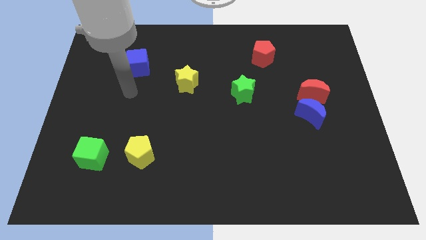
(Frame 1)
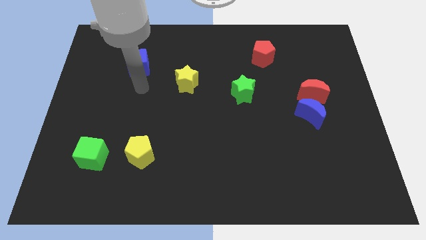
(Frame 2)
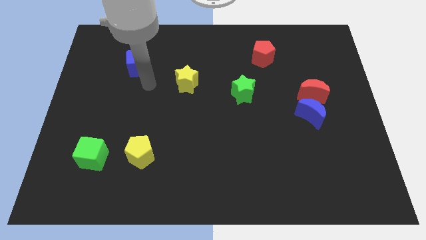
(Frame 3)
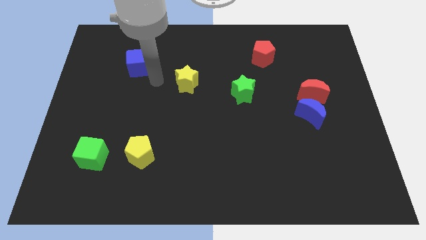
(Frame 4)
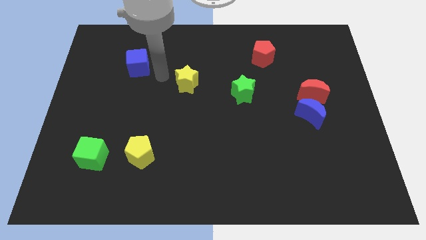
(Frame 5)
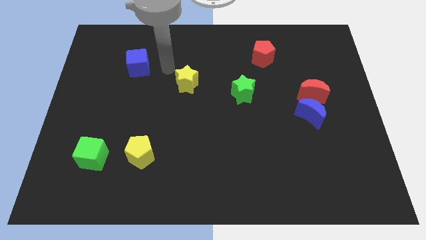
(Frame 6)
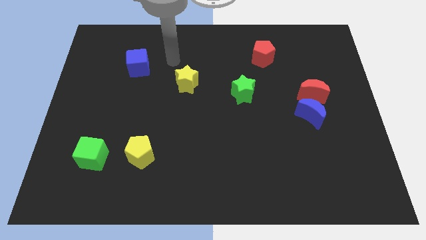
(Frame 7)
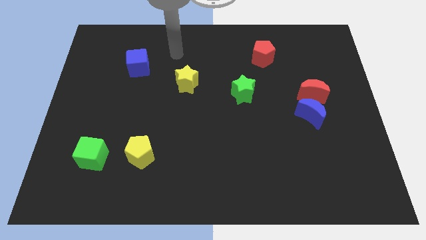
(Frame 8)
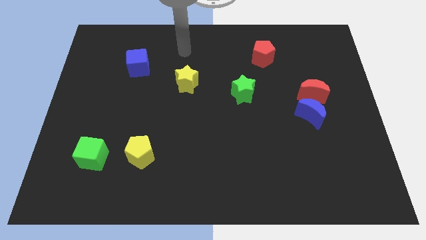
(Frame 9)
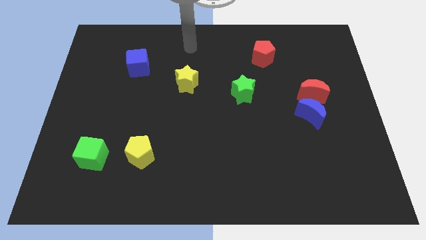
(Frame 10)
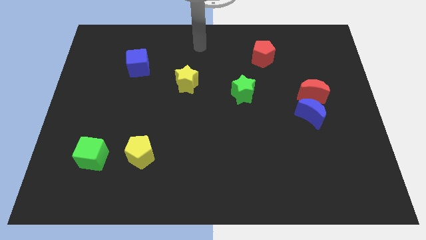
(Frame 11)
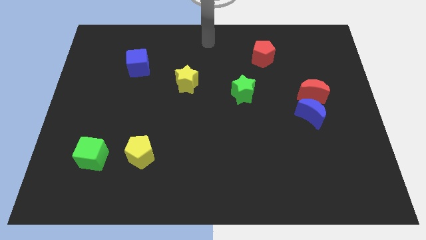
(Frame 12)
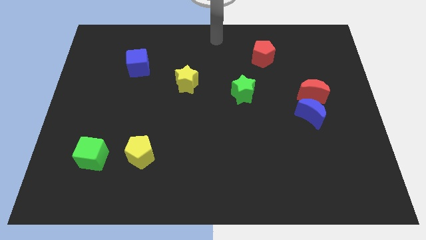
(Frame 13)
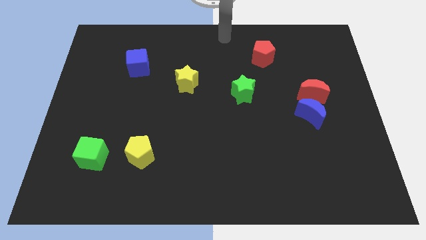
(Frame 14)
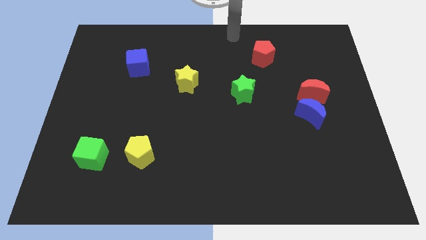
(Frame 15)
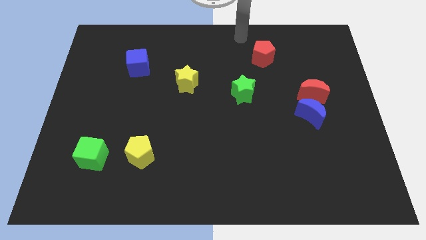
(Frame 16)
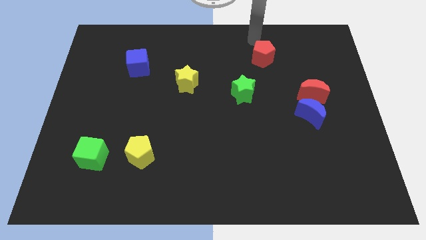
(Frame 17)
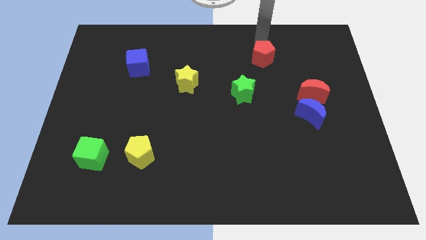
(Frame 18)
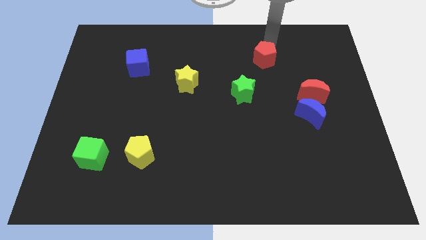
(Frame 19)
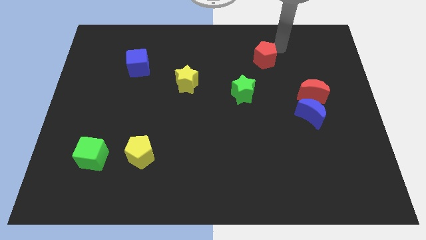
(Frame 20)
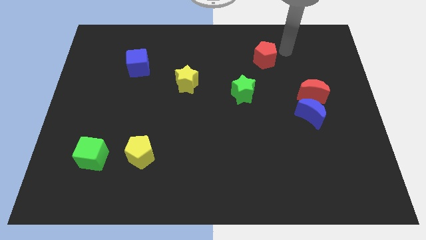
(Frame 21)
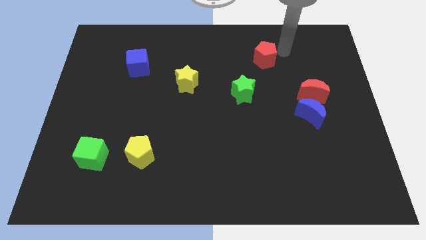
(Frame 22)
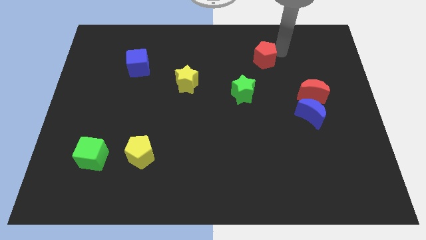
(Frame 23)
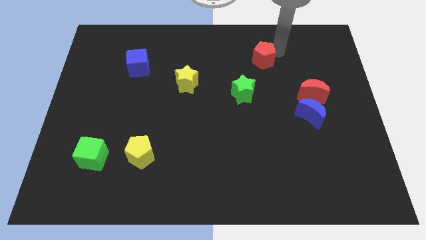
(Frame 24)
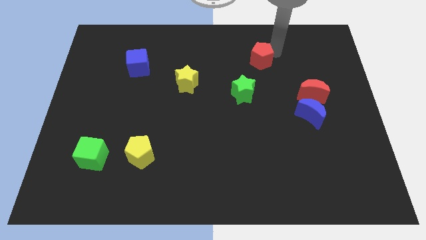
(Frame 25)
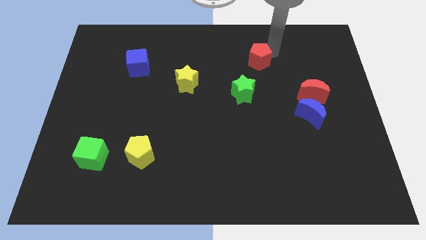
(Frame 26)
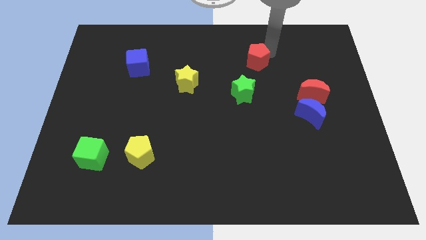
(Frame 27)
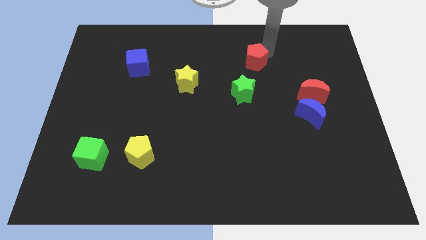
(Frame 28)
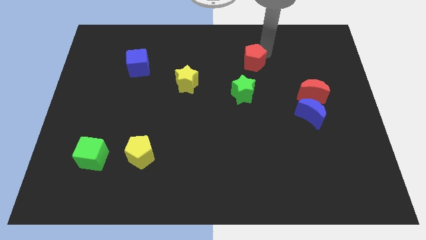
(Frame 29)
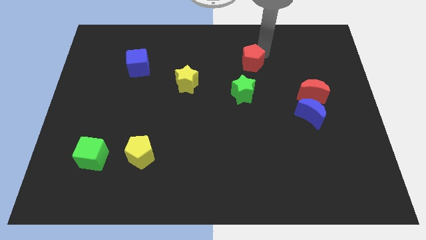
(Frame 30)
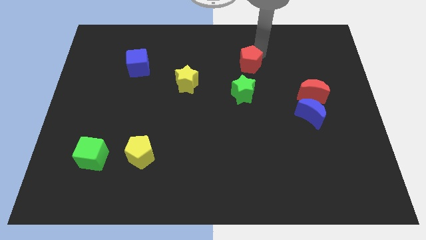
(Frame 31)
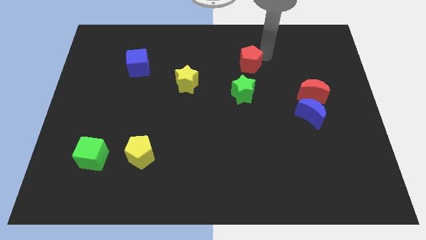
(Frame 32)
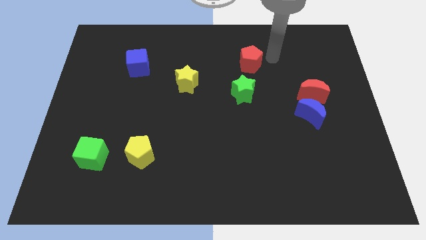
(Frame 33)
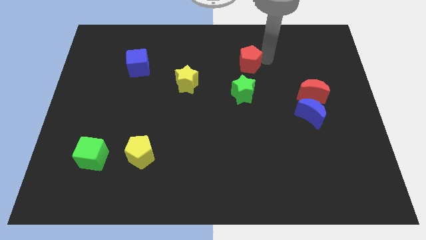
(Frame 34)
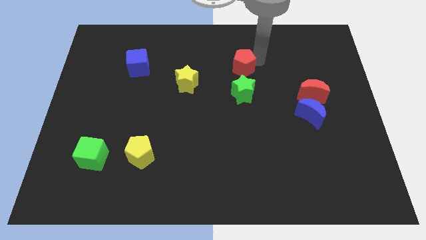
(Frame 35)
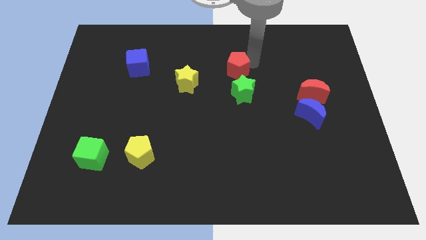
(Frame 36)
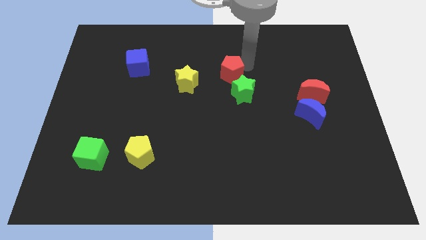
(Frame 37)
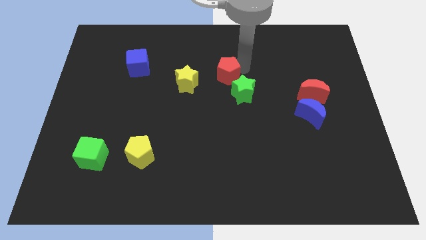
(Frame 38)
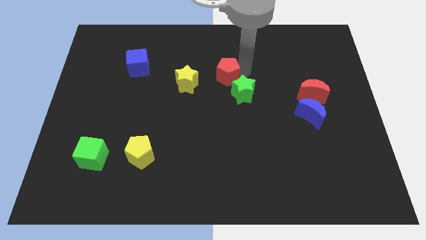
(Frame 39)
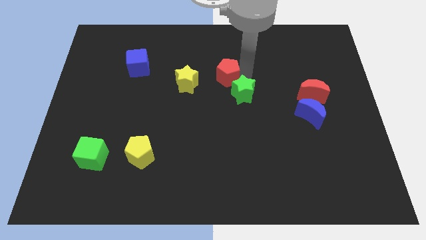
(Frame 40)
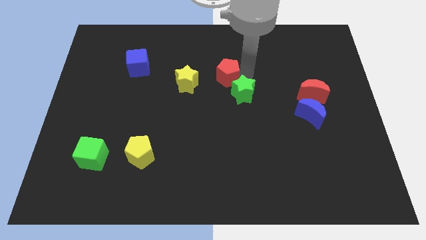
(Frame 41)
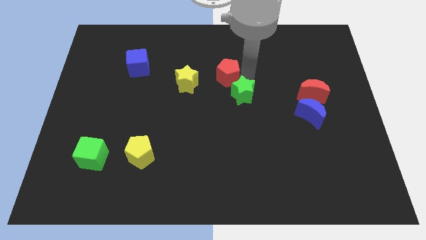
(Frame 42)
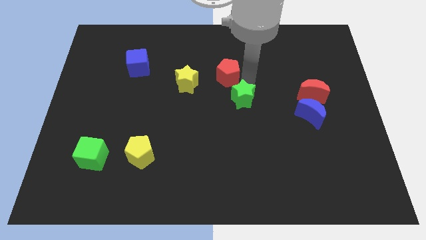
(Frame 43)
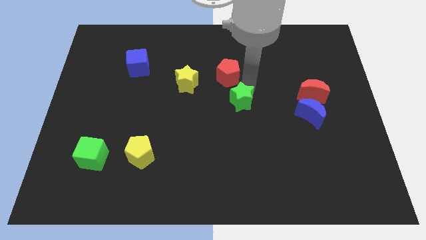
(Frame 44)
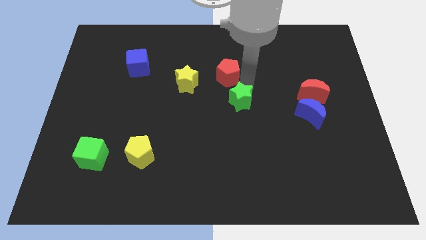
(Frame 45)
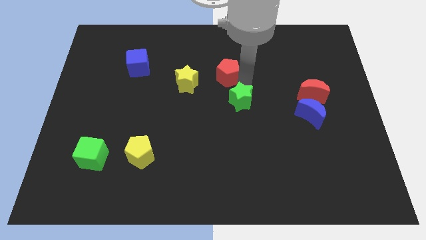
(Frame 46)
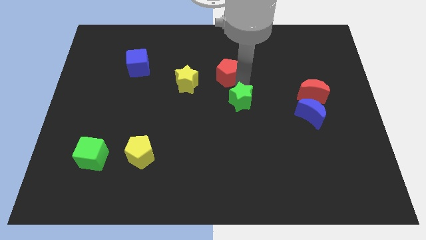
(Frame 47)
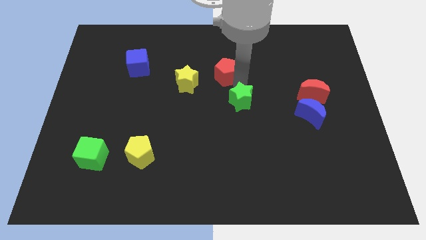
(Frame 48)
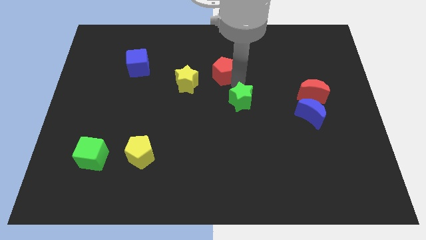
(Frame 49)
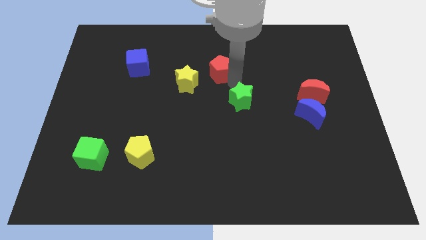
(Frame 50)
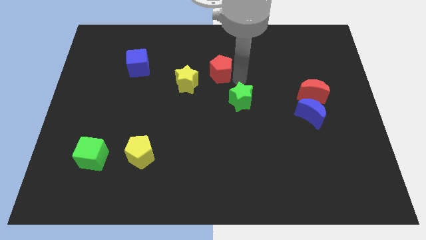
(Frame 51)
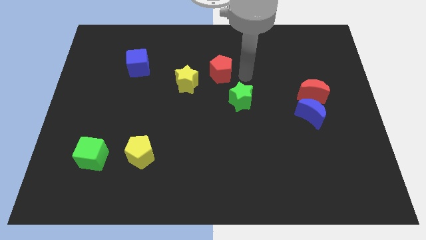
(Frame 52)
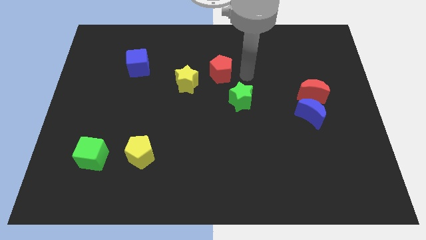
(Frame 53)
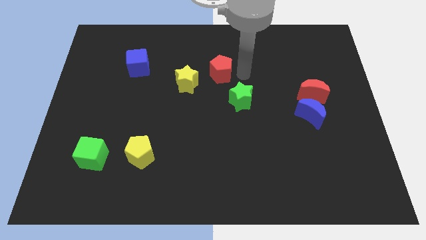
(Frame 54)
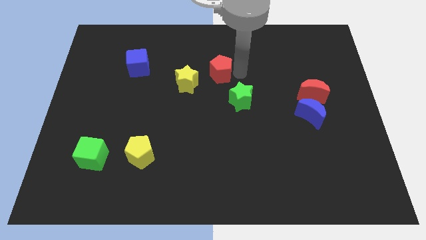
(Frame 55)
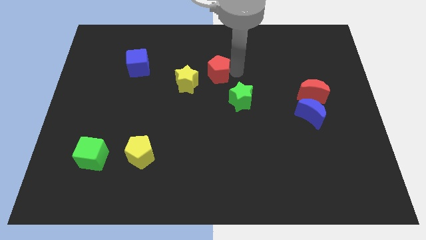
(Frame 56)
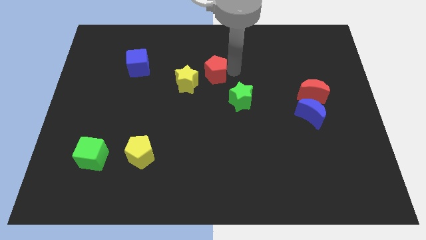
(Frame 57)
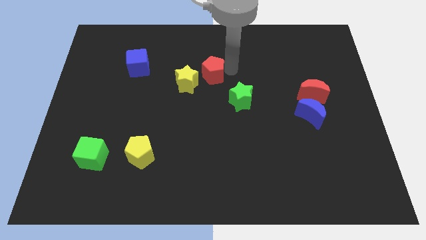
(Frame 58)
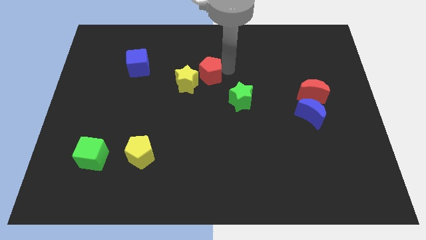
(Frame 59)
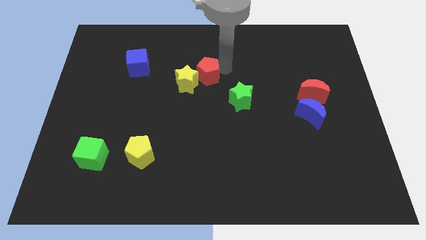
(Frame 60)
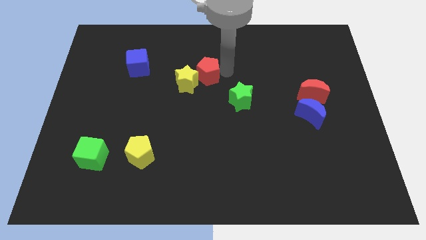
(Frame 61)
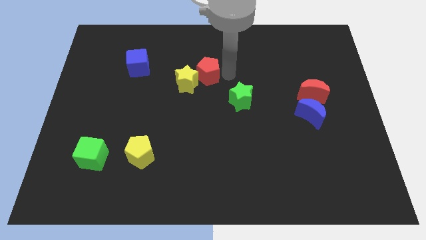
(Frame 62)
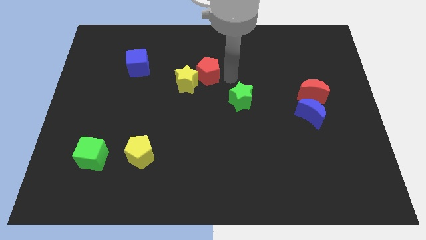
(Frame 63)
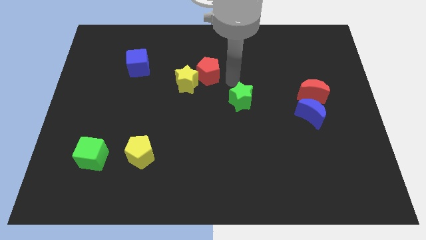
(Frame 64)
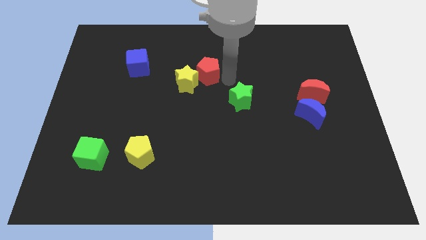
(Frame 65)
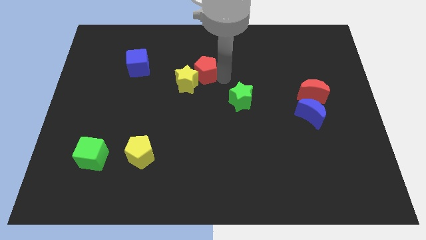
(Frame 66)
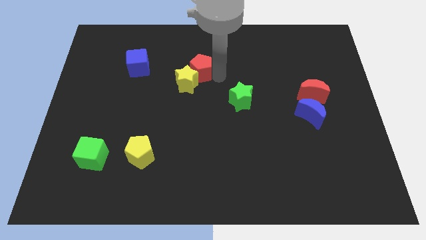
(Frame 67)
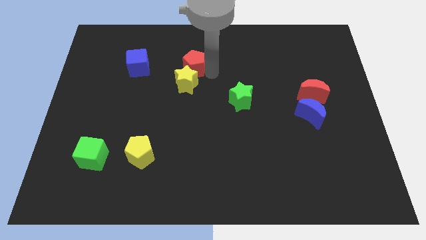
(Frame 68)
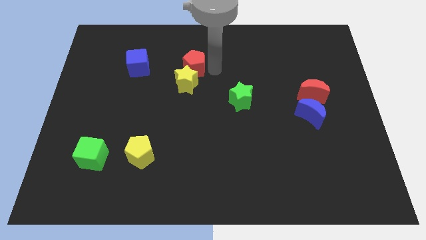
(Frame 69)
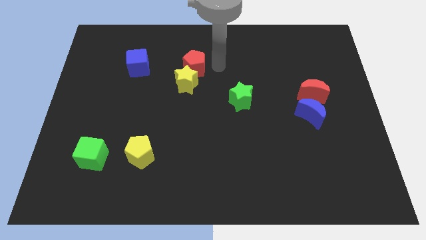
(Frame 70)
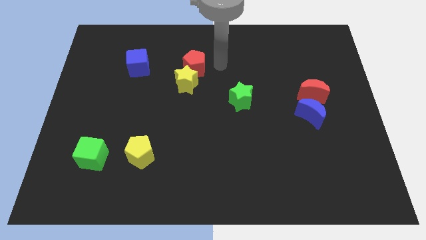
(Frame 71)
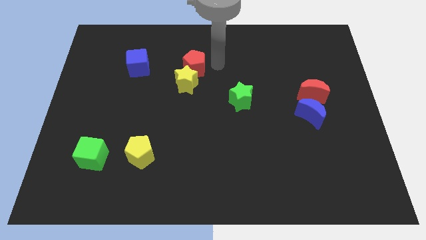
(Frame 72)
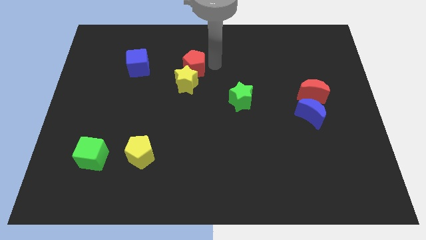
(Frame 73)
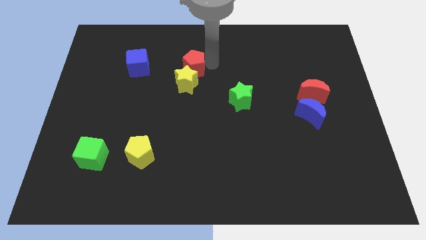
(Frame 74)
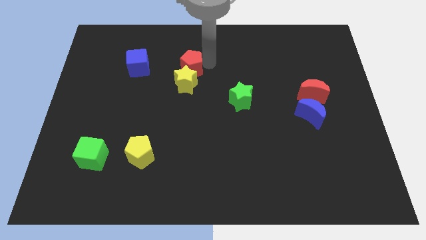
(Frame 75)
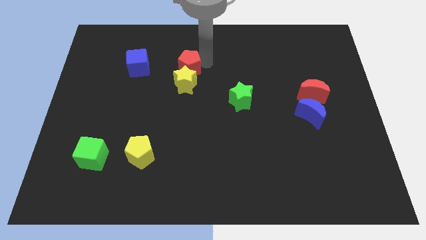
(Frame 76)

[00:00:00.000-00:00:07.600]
slide the red pentagon diagonally up and to the left of the yellow star

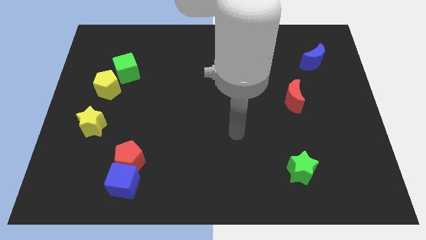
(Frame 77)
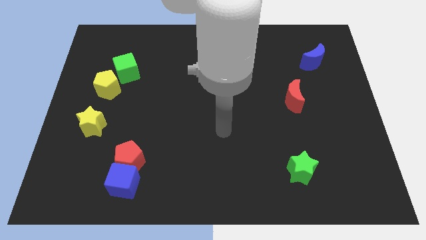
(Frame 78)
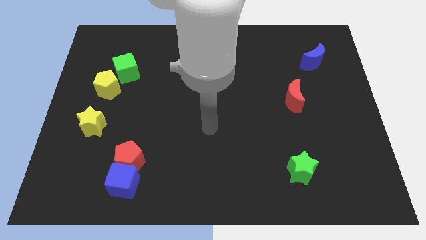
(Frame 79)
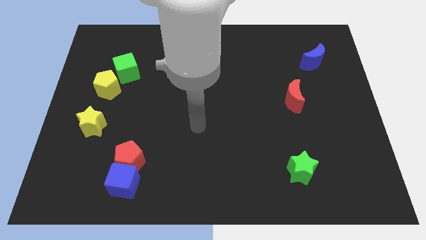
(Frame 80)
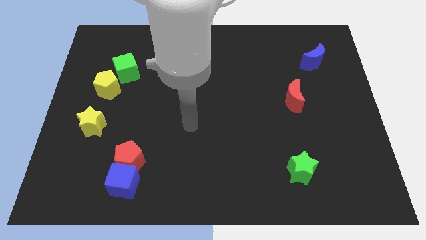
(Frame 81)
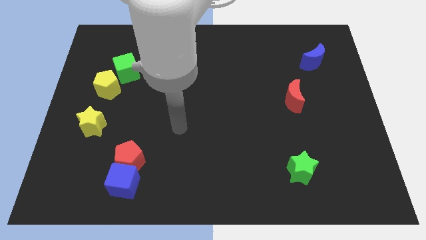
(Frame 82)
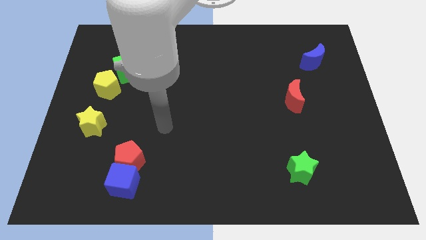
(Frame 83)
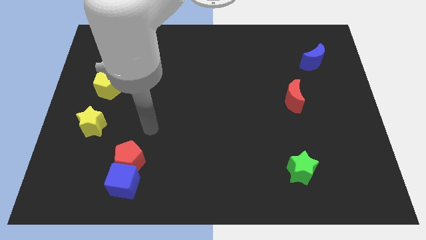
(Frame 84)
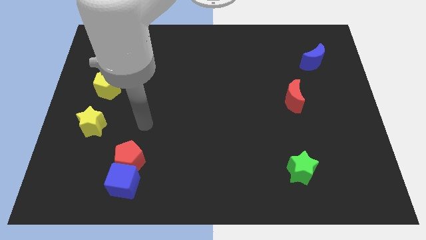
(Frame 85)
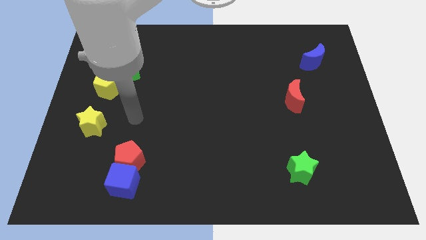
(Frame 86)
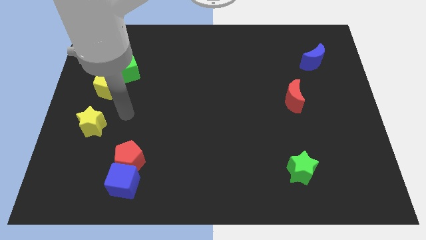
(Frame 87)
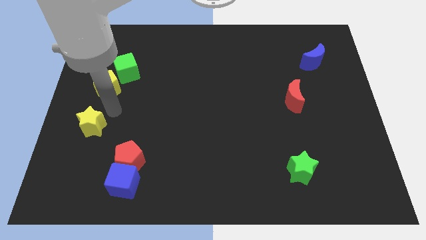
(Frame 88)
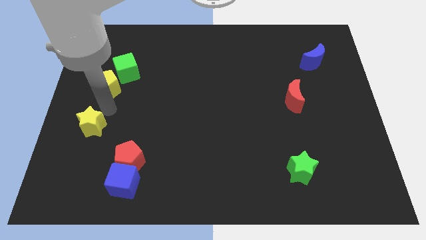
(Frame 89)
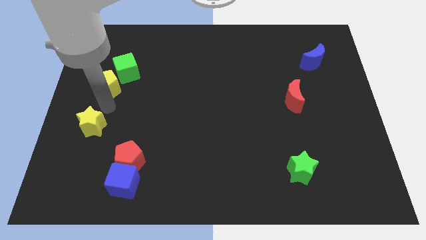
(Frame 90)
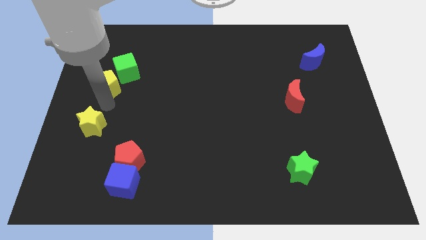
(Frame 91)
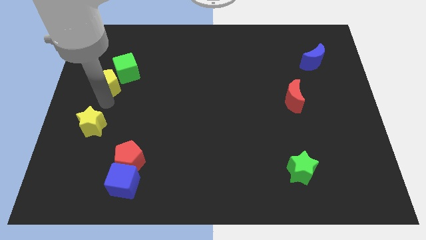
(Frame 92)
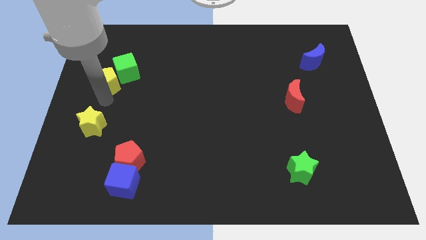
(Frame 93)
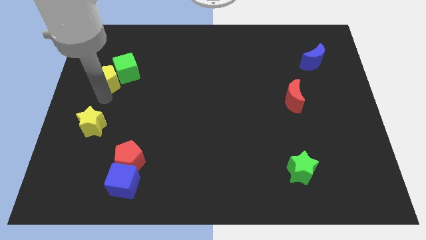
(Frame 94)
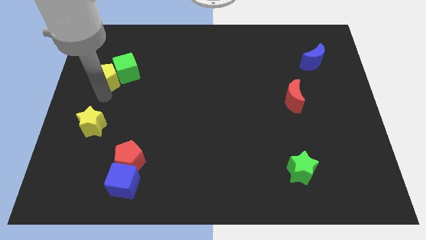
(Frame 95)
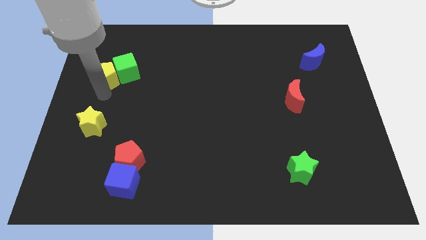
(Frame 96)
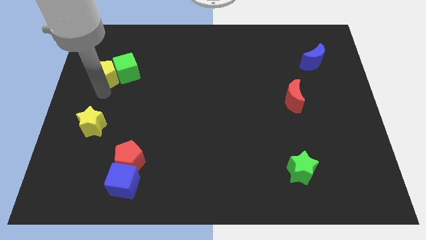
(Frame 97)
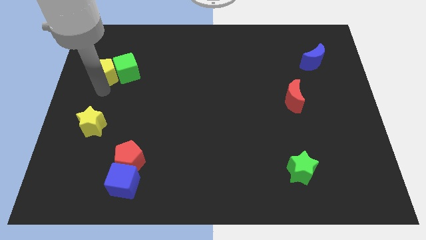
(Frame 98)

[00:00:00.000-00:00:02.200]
push the yellow pentagon to the top left of the green cube
